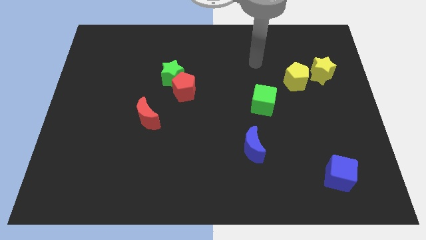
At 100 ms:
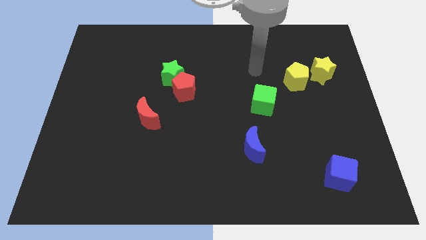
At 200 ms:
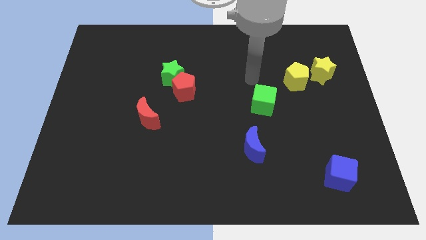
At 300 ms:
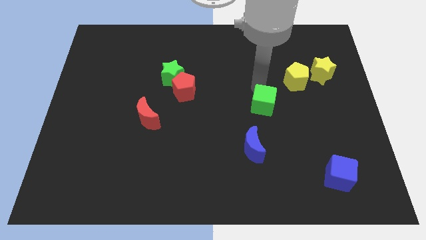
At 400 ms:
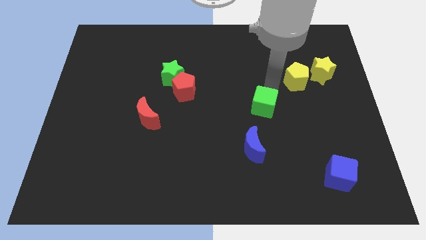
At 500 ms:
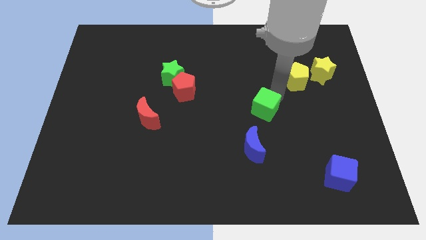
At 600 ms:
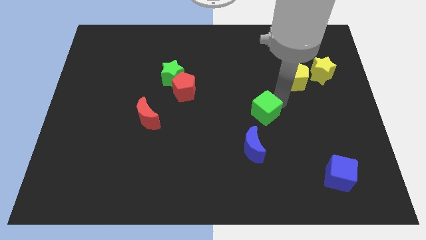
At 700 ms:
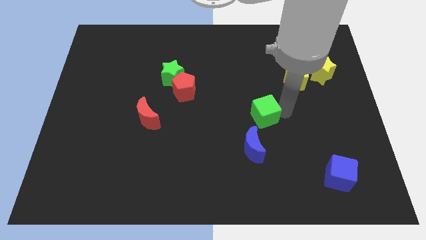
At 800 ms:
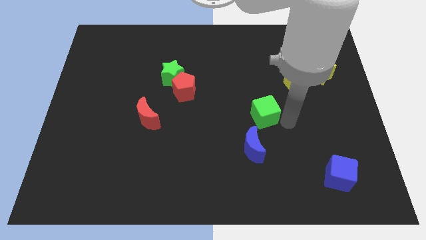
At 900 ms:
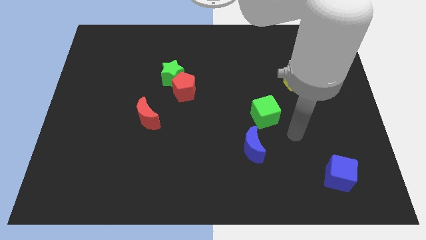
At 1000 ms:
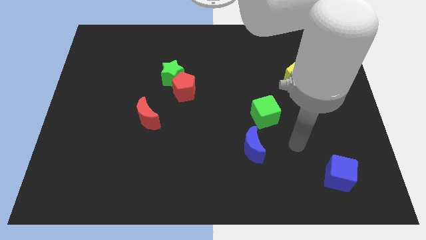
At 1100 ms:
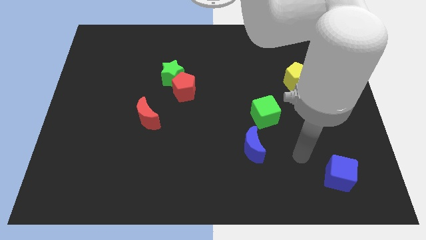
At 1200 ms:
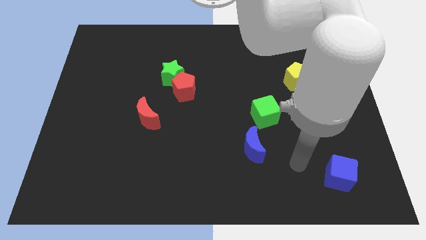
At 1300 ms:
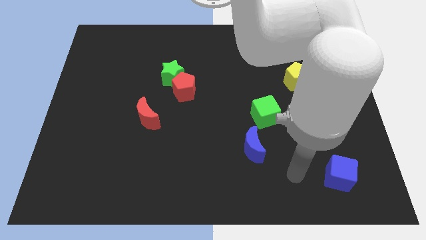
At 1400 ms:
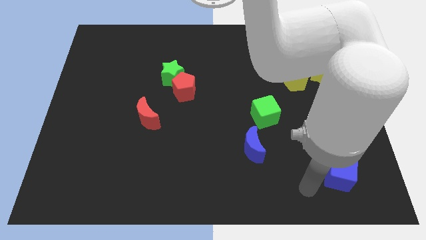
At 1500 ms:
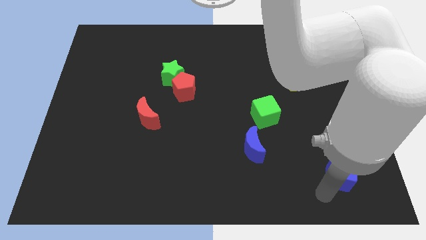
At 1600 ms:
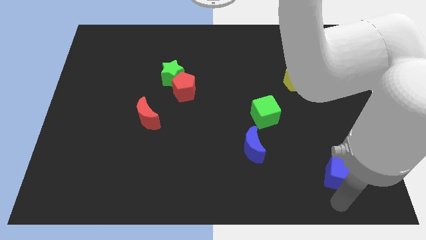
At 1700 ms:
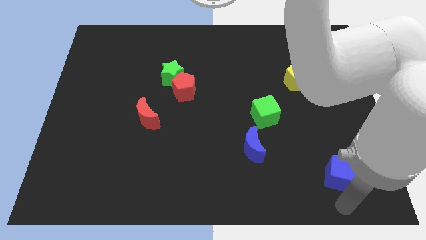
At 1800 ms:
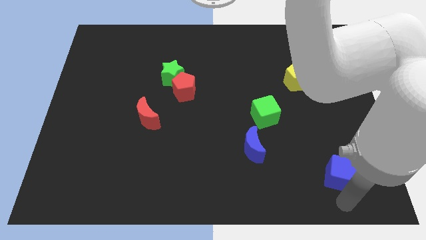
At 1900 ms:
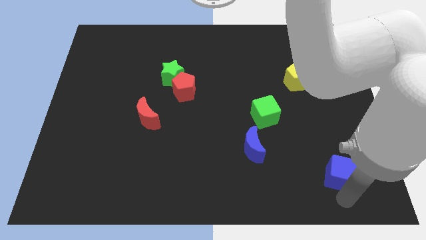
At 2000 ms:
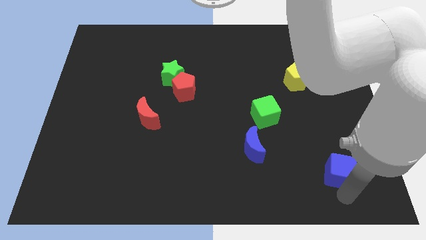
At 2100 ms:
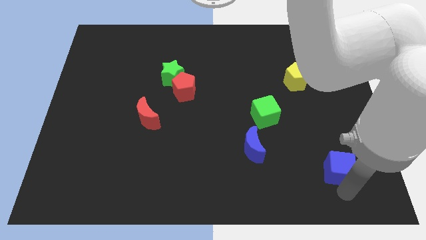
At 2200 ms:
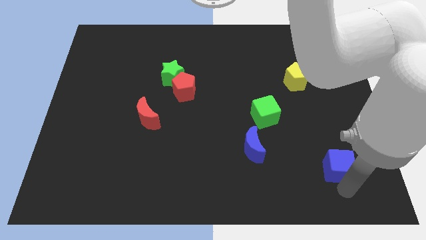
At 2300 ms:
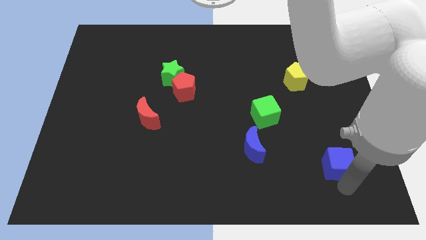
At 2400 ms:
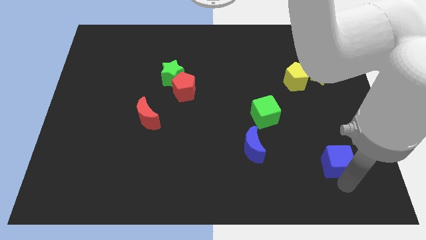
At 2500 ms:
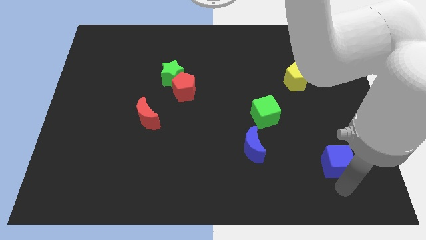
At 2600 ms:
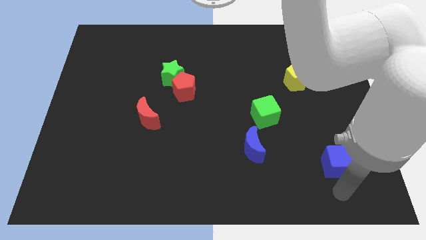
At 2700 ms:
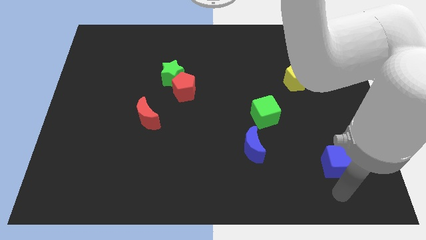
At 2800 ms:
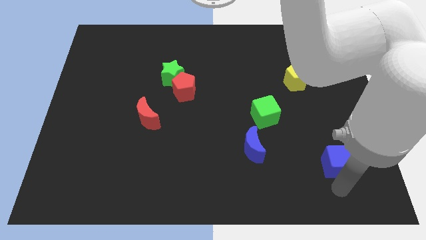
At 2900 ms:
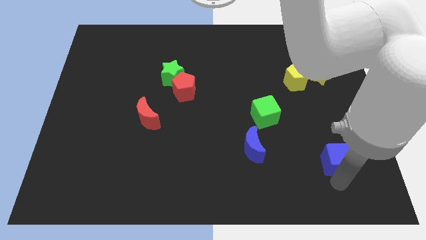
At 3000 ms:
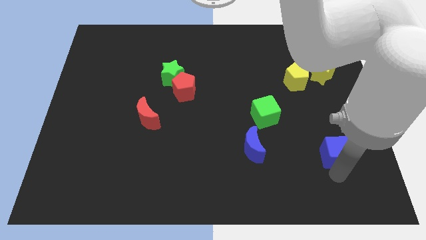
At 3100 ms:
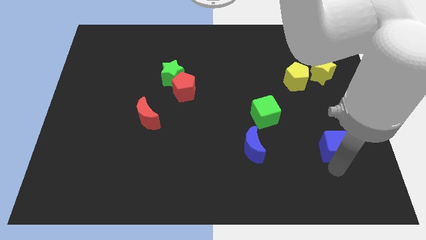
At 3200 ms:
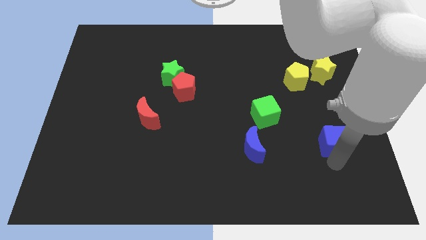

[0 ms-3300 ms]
move the blue cube somewhat up

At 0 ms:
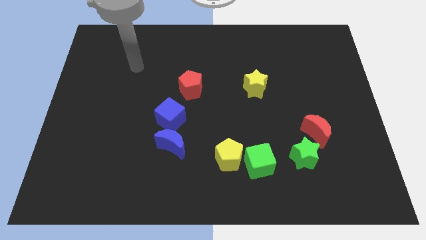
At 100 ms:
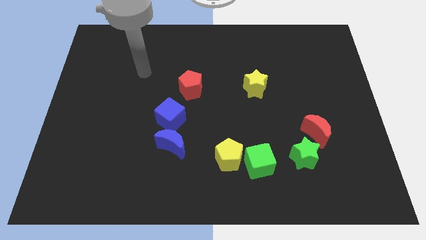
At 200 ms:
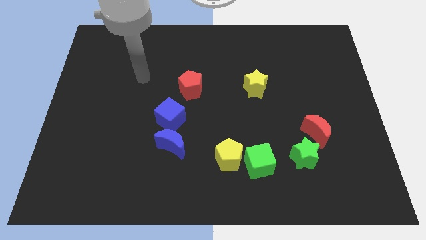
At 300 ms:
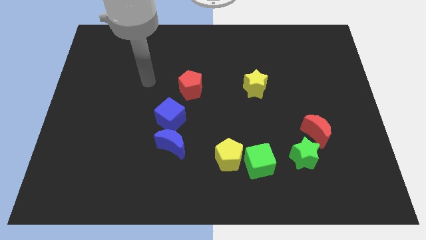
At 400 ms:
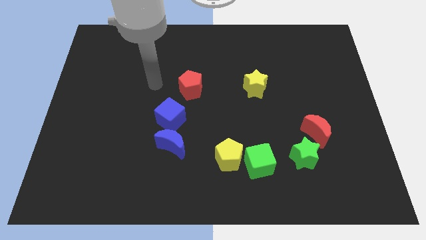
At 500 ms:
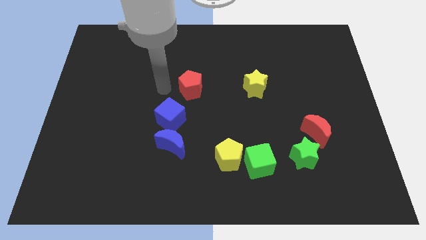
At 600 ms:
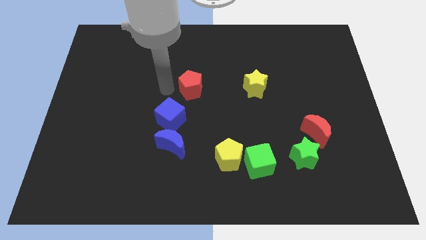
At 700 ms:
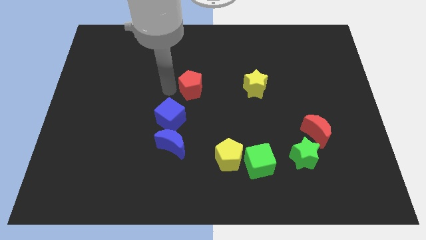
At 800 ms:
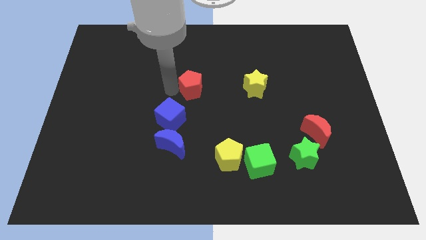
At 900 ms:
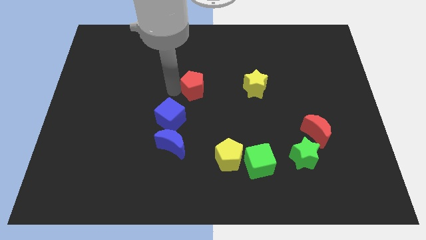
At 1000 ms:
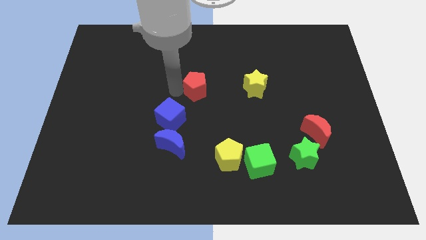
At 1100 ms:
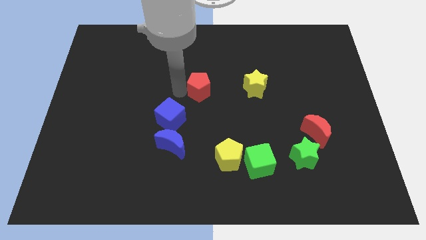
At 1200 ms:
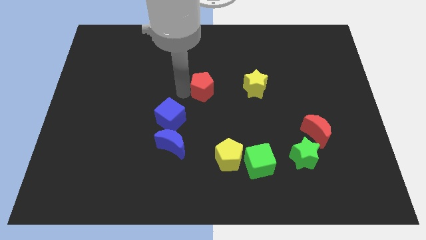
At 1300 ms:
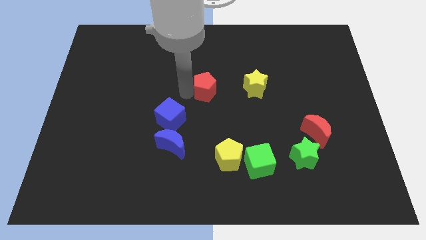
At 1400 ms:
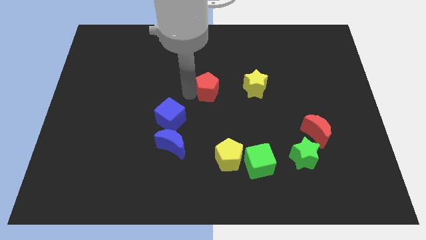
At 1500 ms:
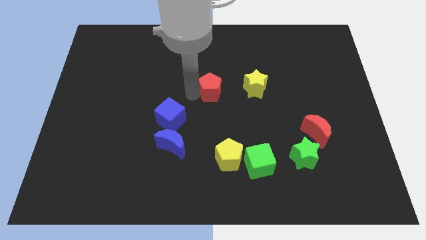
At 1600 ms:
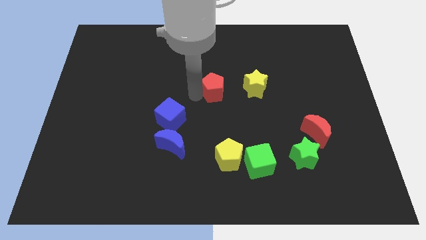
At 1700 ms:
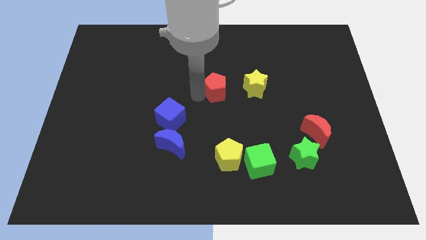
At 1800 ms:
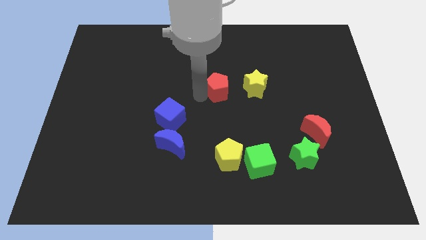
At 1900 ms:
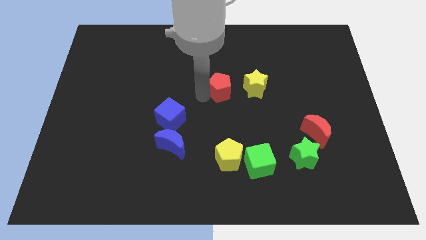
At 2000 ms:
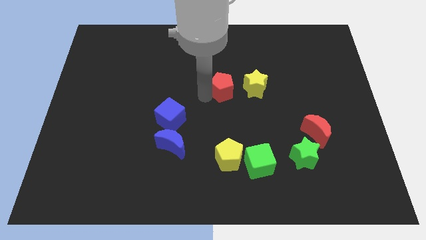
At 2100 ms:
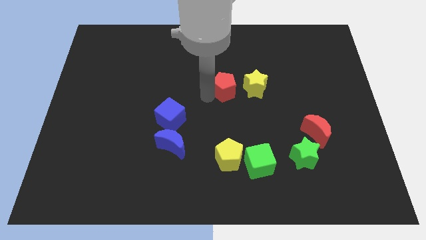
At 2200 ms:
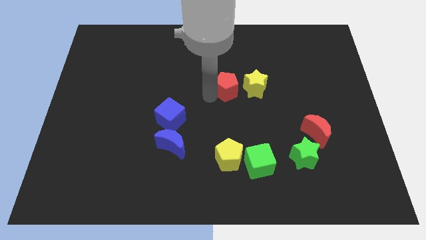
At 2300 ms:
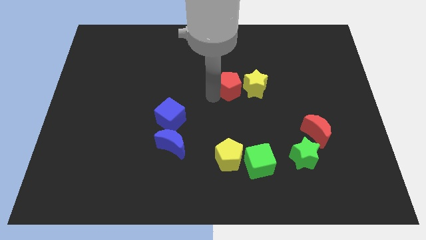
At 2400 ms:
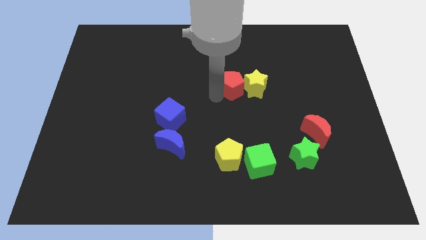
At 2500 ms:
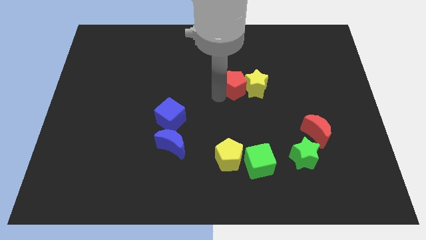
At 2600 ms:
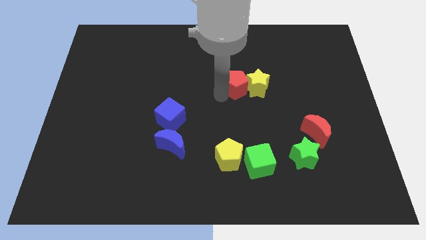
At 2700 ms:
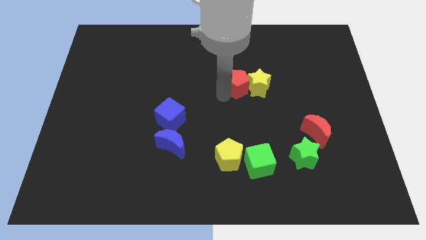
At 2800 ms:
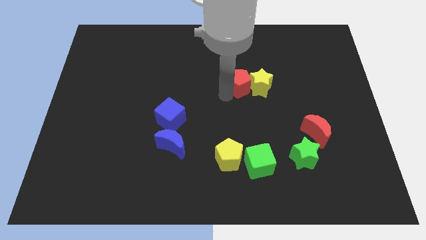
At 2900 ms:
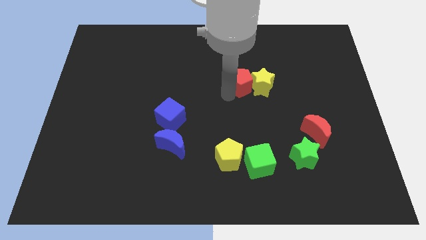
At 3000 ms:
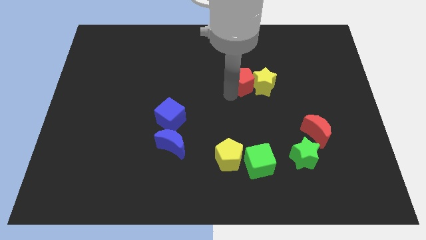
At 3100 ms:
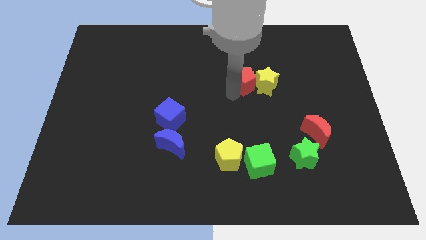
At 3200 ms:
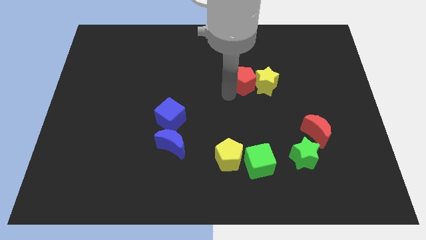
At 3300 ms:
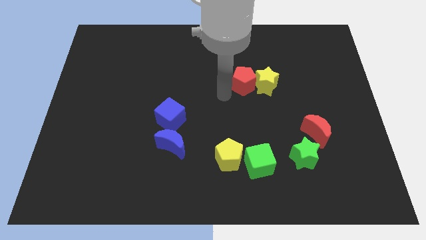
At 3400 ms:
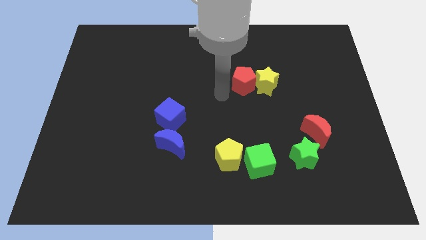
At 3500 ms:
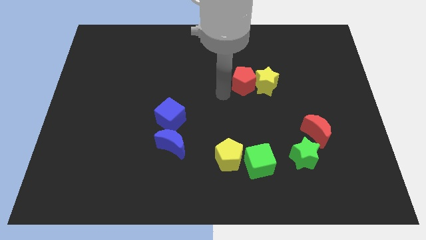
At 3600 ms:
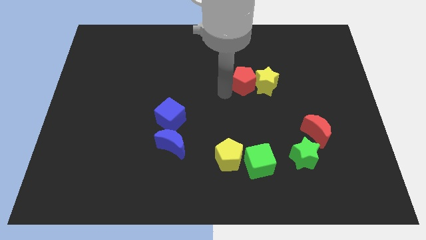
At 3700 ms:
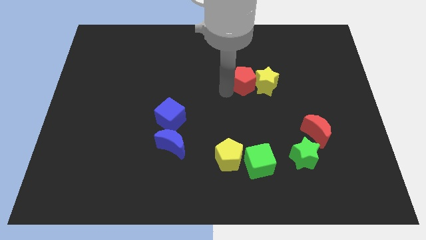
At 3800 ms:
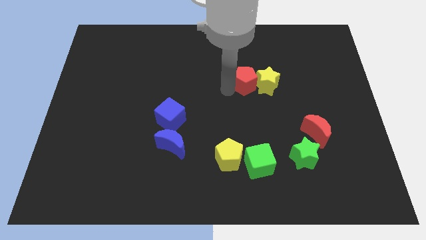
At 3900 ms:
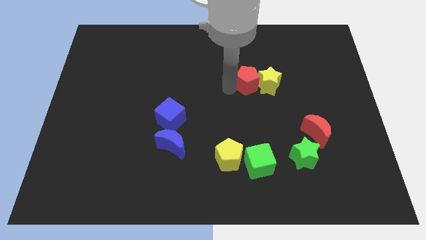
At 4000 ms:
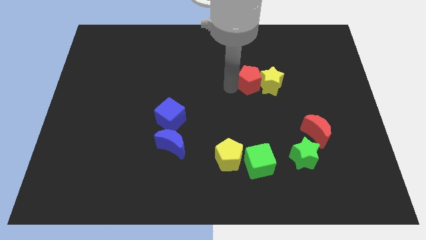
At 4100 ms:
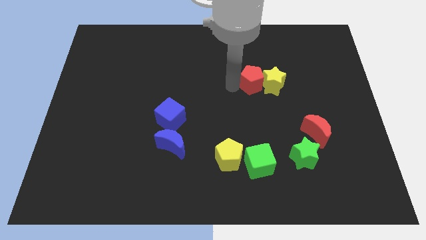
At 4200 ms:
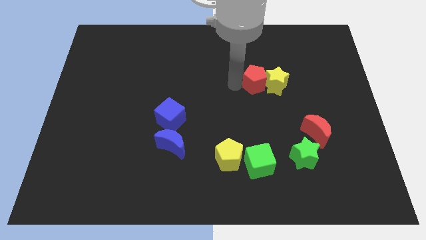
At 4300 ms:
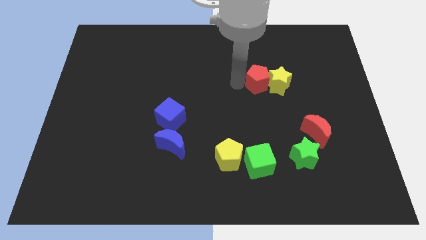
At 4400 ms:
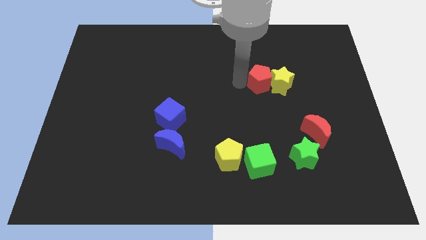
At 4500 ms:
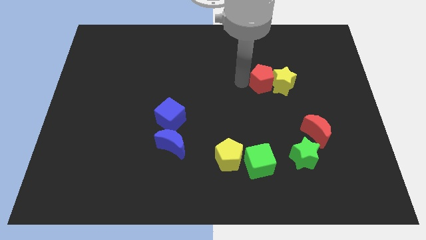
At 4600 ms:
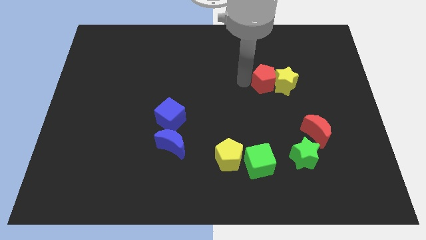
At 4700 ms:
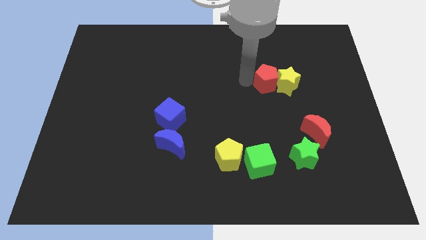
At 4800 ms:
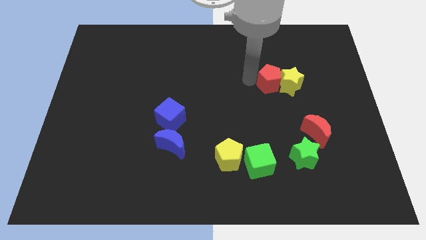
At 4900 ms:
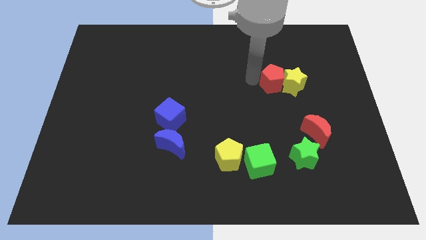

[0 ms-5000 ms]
push the red pentagon to the right
